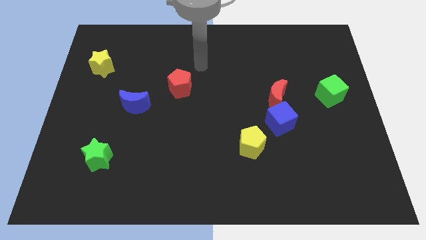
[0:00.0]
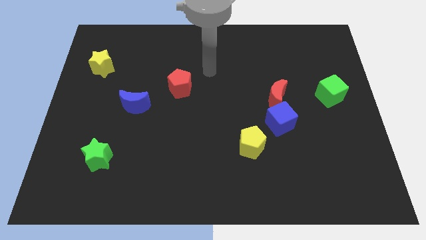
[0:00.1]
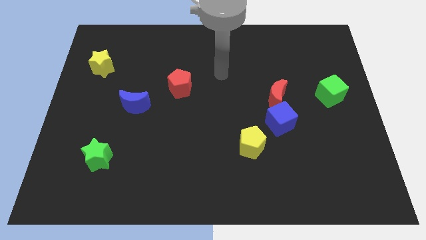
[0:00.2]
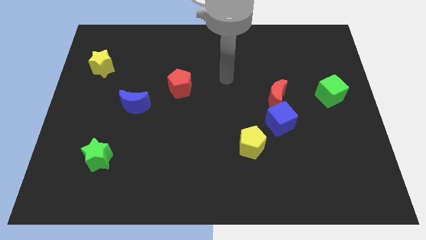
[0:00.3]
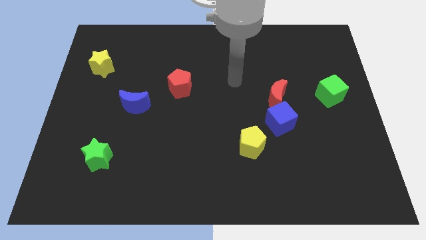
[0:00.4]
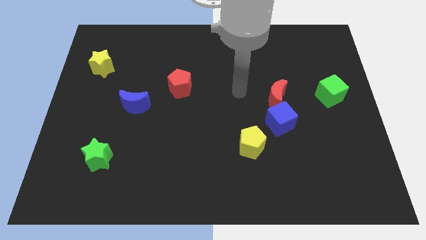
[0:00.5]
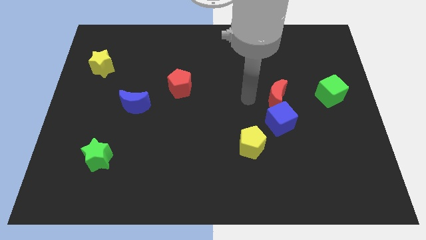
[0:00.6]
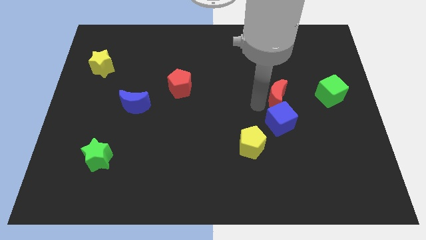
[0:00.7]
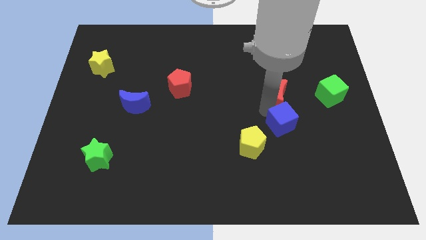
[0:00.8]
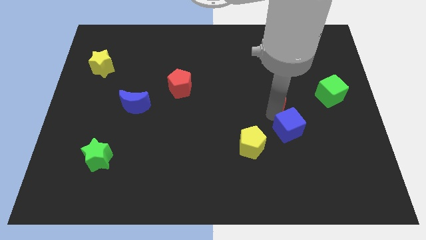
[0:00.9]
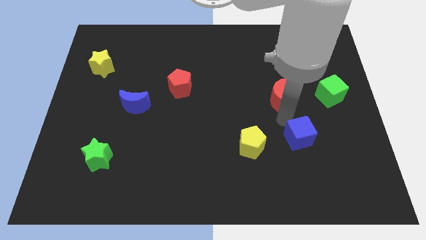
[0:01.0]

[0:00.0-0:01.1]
separate the red moon from the blue cube

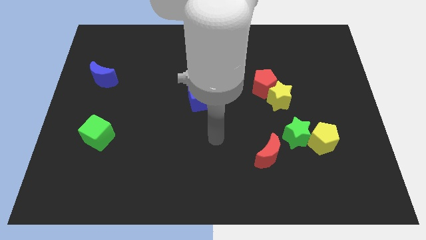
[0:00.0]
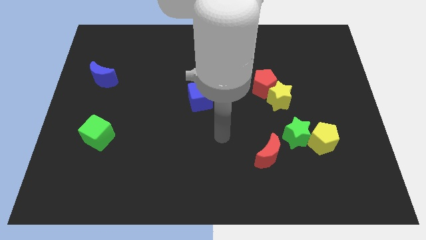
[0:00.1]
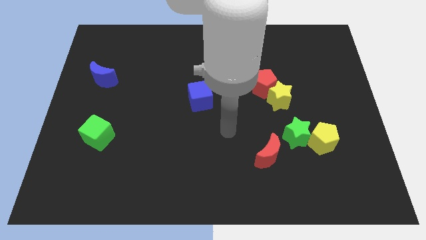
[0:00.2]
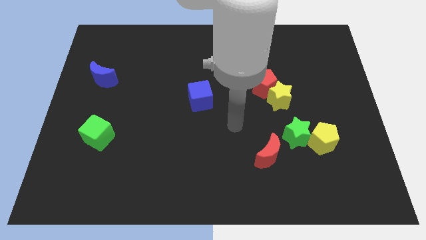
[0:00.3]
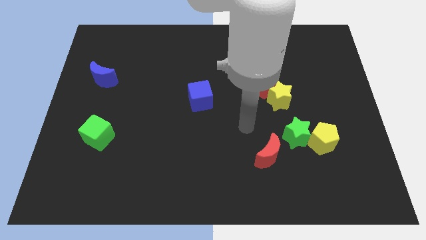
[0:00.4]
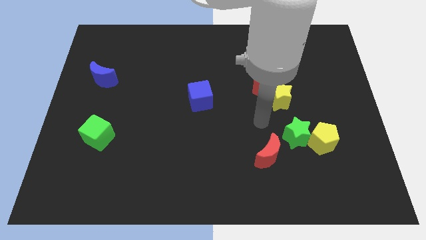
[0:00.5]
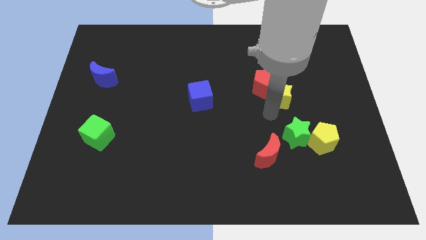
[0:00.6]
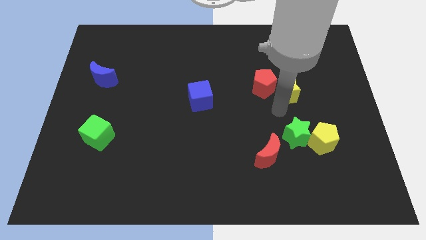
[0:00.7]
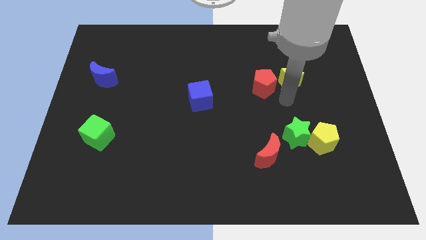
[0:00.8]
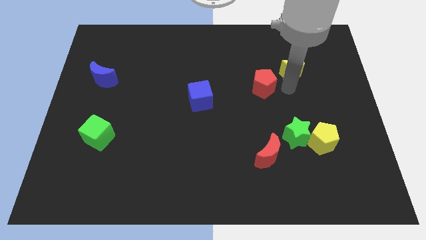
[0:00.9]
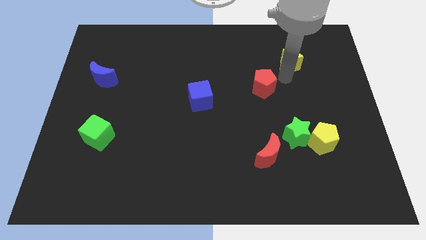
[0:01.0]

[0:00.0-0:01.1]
pull the red pentagon apart from the yellow star

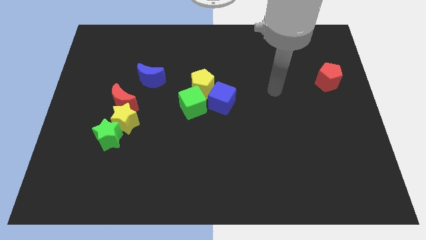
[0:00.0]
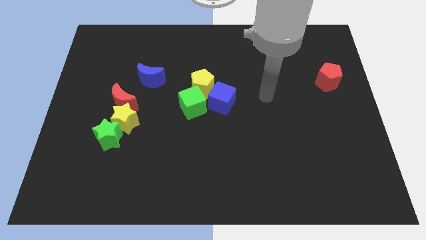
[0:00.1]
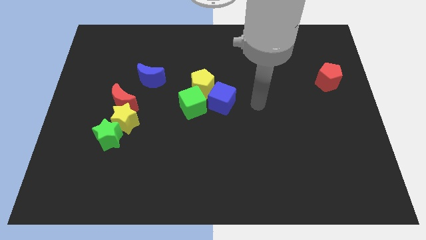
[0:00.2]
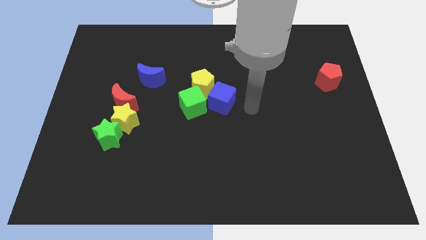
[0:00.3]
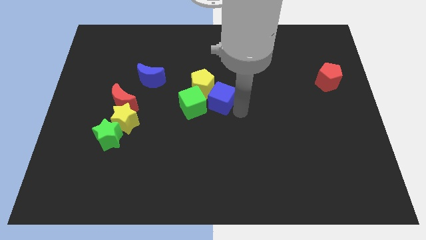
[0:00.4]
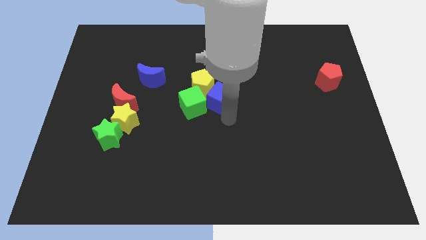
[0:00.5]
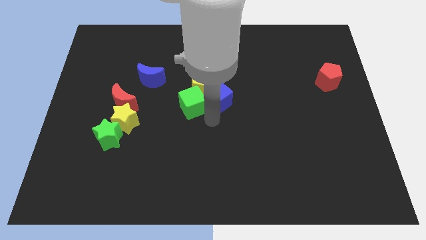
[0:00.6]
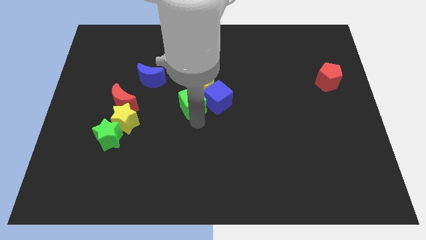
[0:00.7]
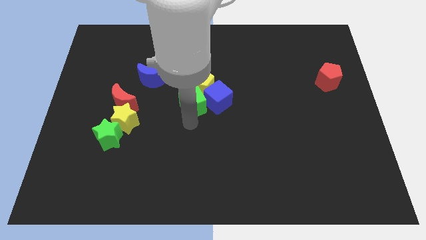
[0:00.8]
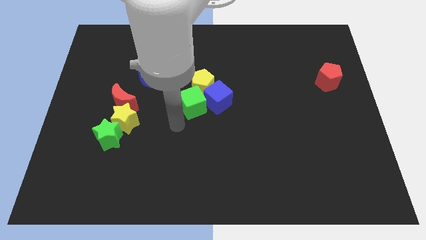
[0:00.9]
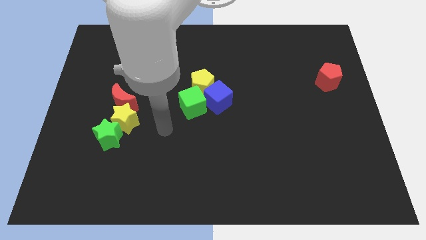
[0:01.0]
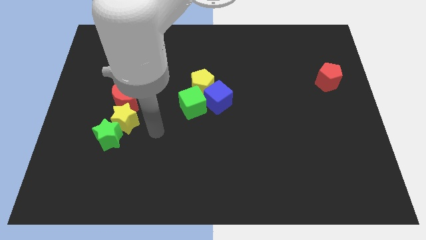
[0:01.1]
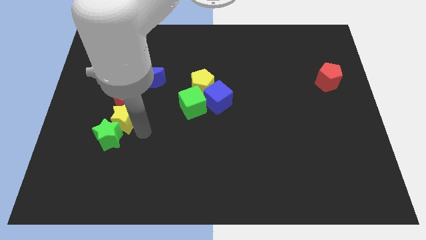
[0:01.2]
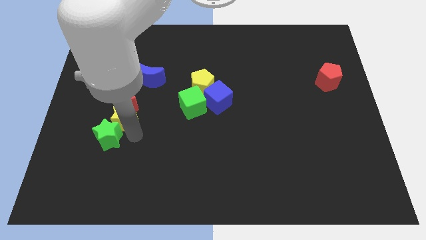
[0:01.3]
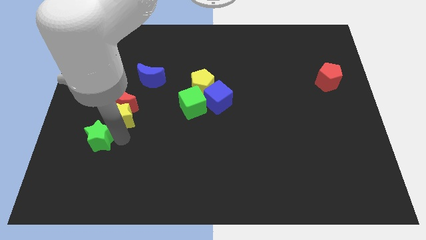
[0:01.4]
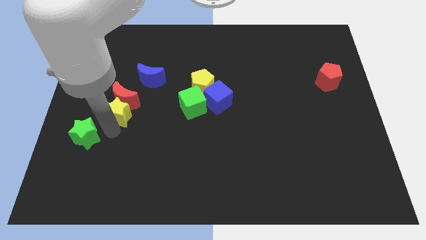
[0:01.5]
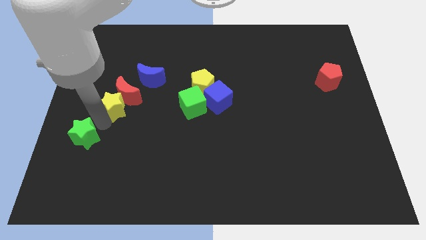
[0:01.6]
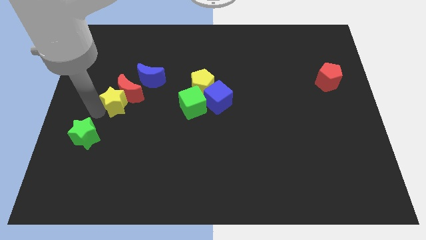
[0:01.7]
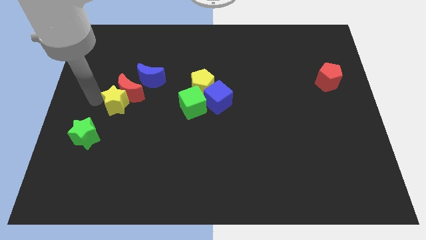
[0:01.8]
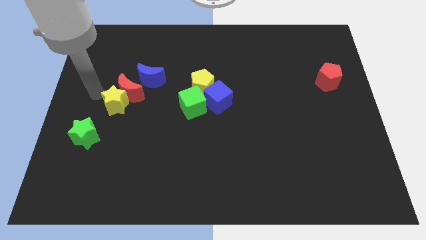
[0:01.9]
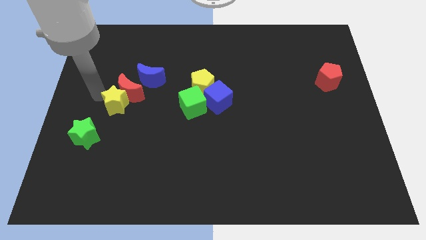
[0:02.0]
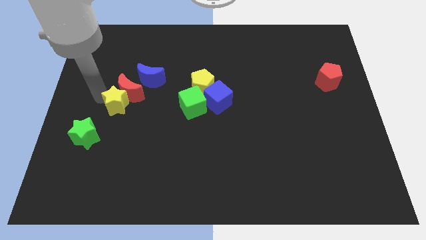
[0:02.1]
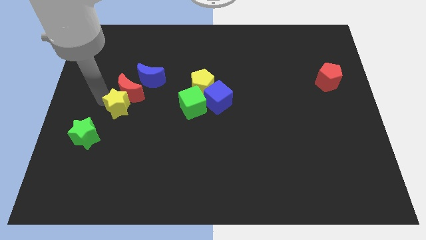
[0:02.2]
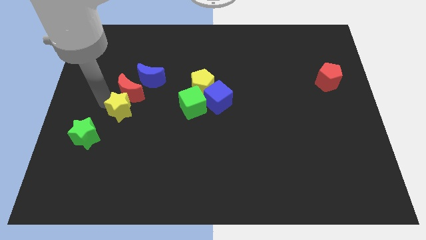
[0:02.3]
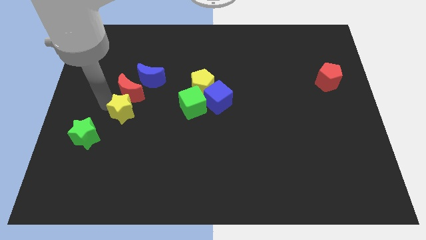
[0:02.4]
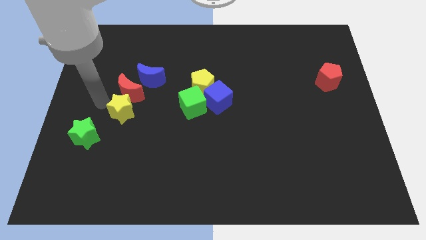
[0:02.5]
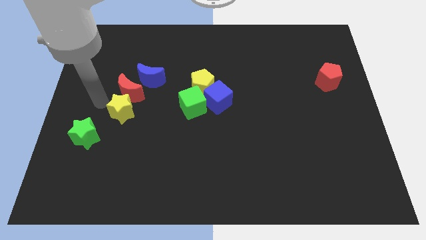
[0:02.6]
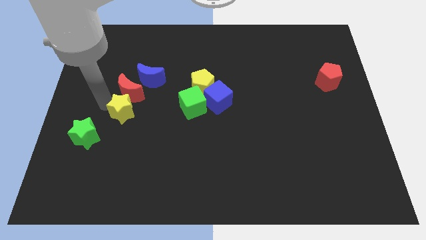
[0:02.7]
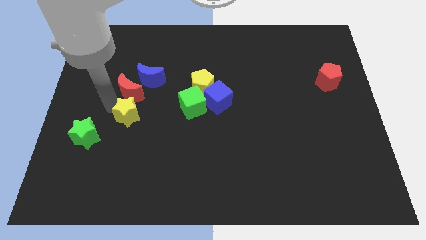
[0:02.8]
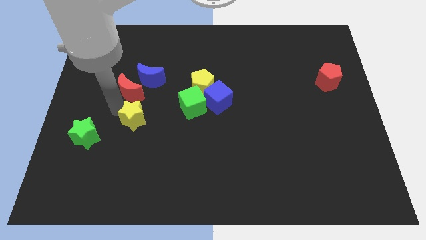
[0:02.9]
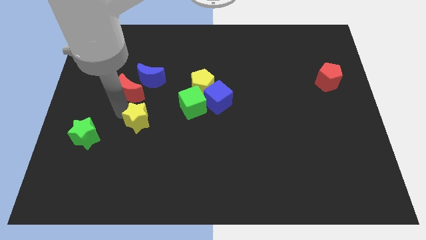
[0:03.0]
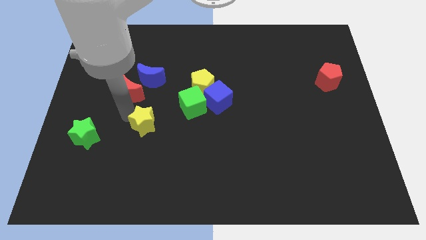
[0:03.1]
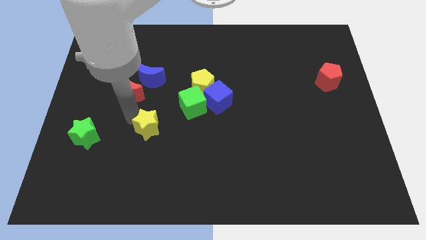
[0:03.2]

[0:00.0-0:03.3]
separate the yellow star from the red moon and green star

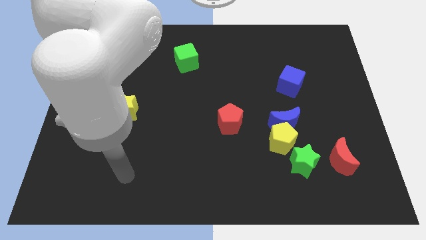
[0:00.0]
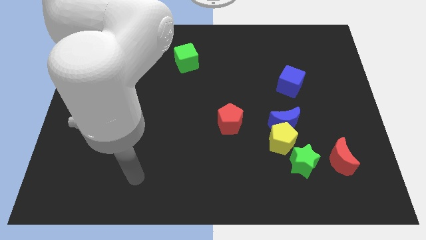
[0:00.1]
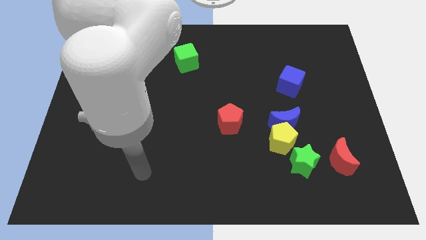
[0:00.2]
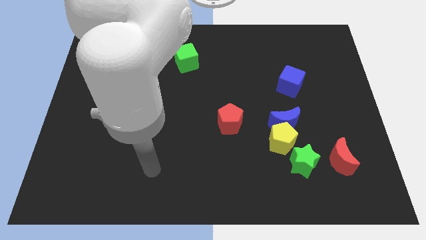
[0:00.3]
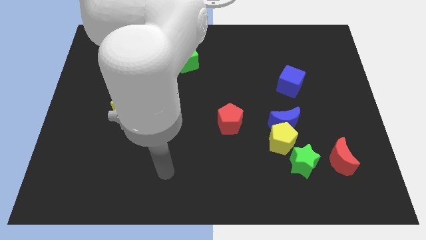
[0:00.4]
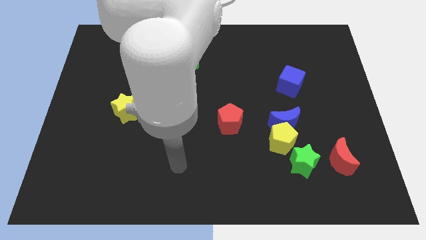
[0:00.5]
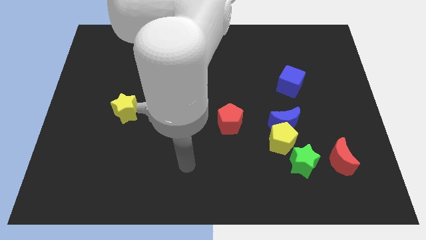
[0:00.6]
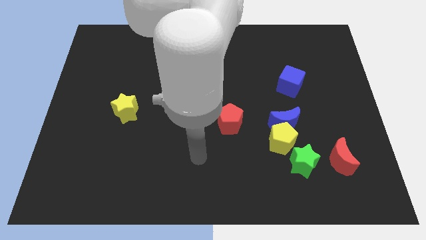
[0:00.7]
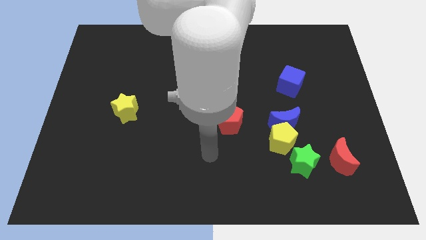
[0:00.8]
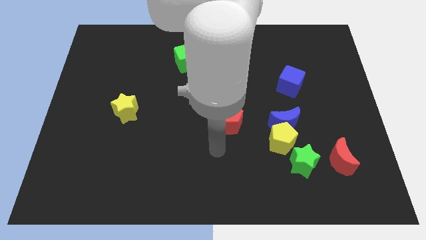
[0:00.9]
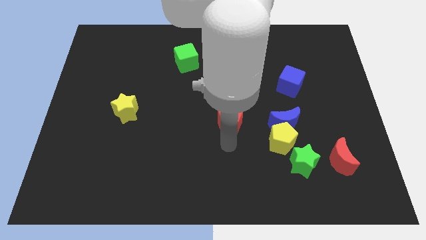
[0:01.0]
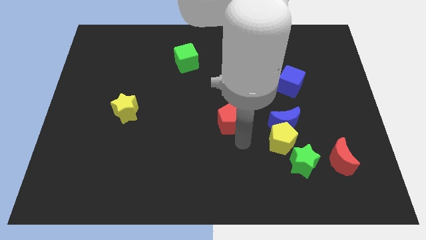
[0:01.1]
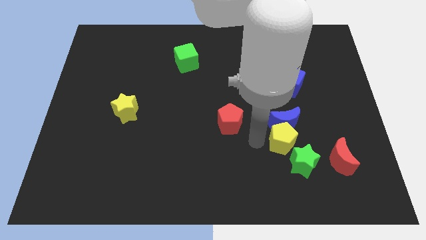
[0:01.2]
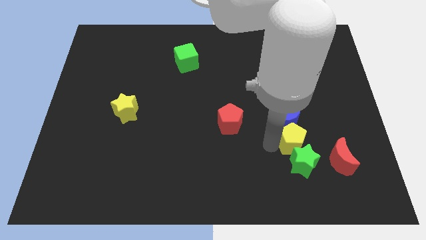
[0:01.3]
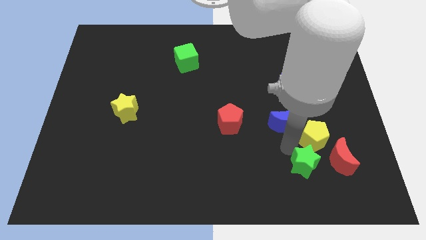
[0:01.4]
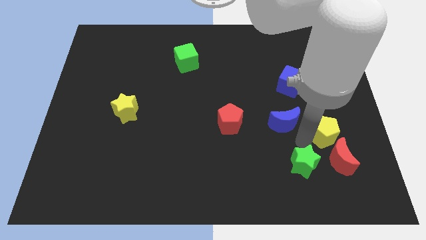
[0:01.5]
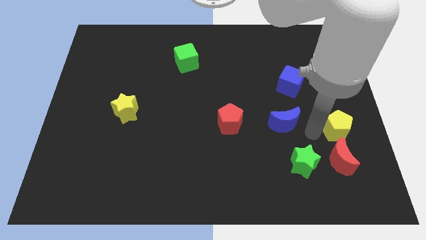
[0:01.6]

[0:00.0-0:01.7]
pull the blue moon apart from the yellow pentagon

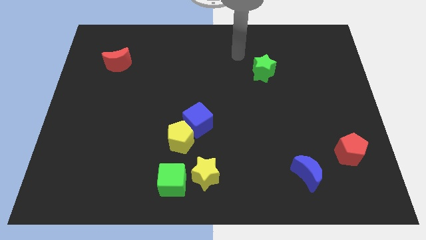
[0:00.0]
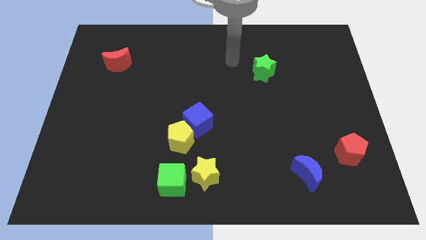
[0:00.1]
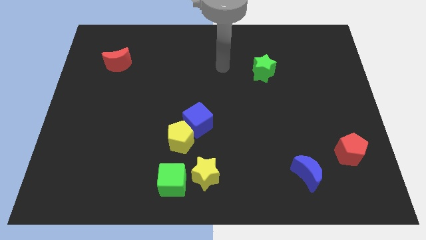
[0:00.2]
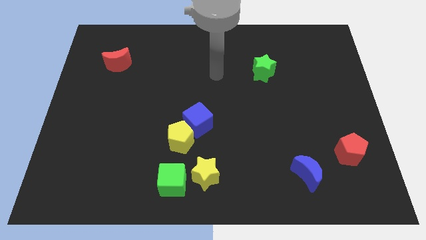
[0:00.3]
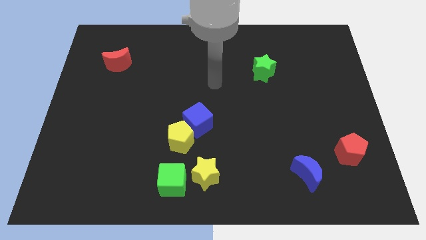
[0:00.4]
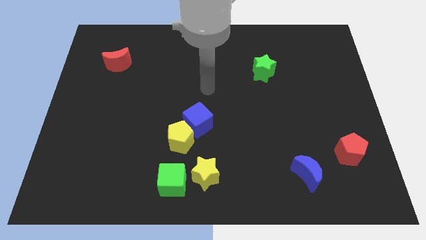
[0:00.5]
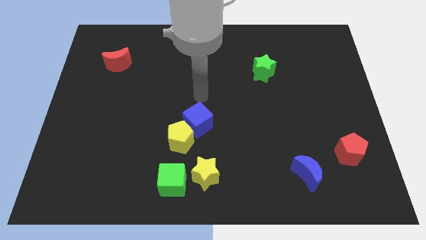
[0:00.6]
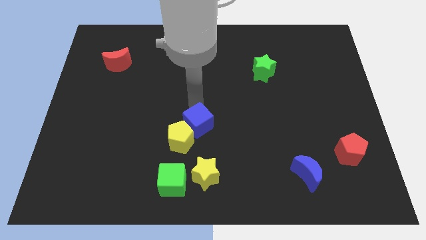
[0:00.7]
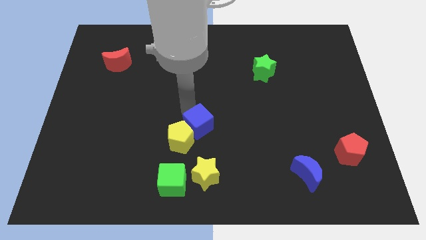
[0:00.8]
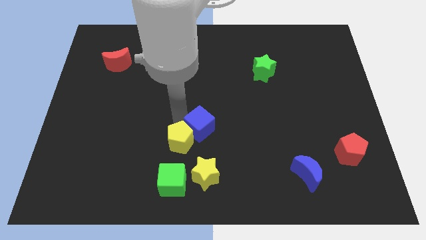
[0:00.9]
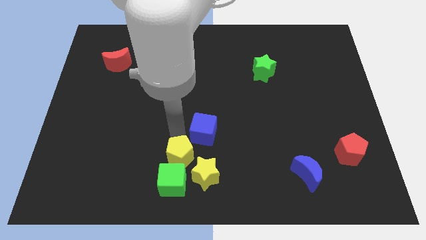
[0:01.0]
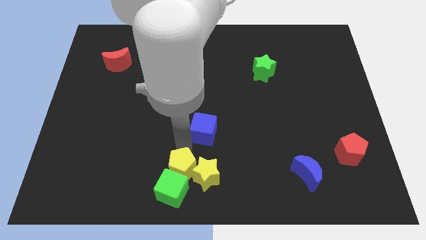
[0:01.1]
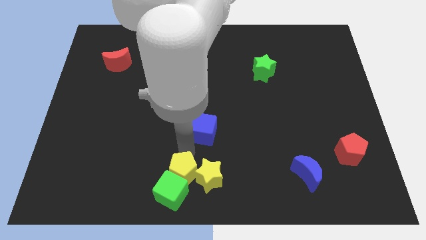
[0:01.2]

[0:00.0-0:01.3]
move the blue cube away from the yellow pentagon

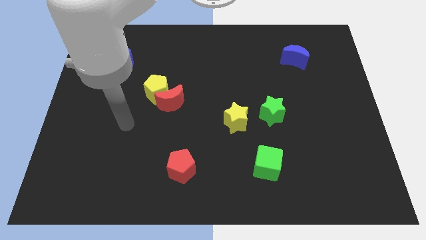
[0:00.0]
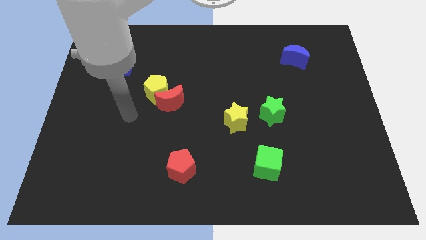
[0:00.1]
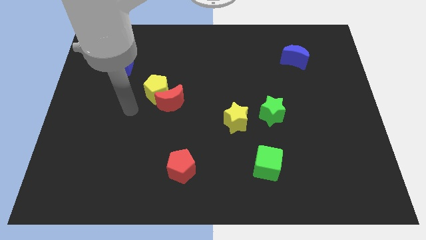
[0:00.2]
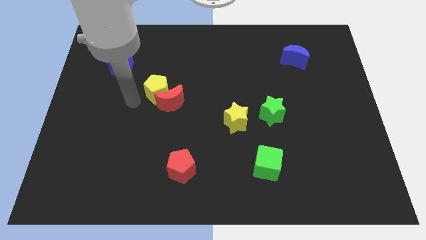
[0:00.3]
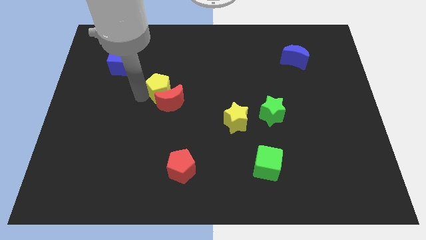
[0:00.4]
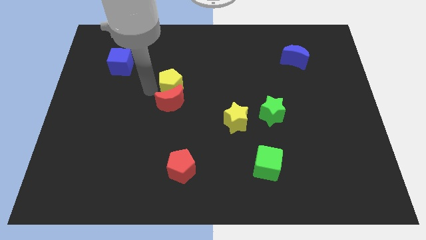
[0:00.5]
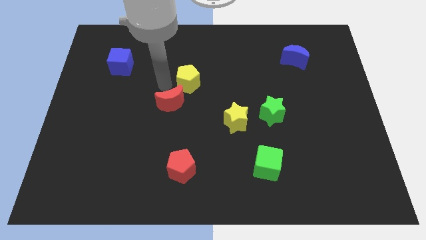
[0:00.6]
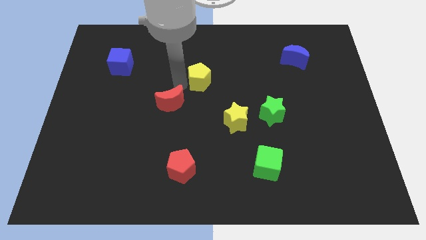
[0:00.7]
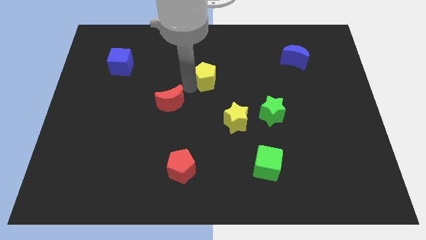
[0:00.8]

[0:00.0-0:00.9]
move the red moon away from the yellow pentagon
